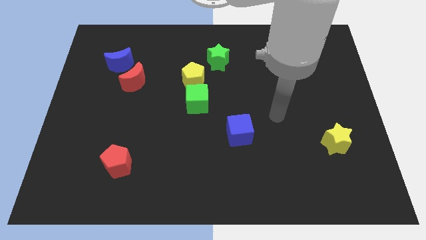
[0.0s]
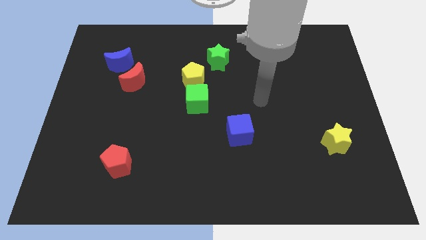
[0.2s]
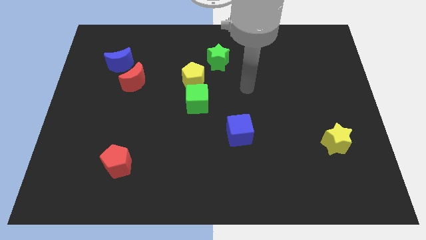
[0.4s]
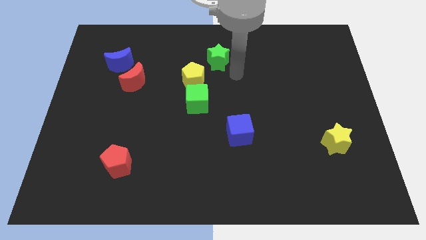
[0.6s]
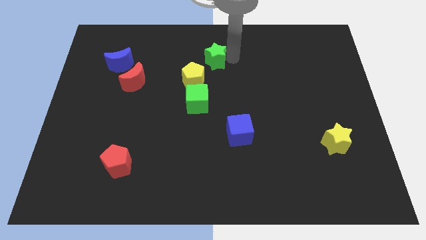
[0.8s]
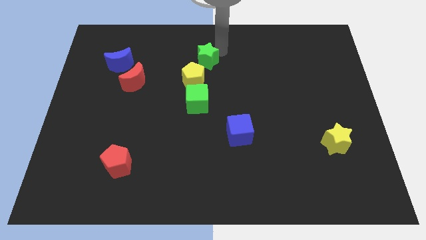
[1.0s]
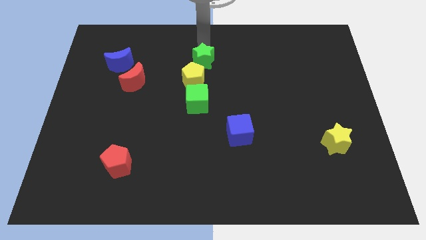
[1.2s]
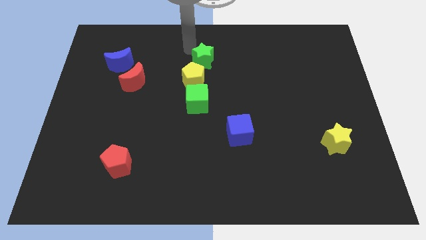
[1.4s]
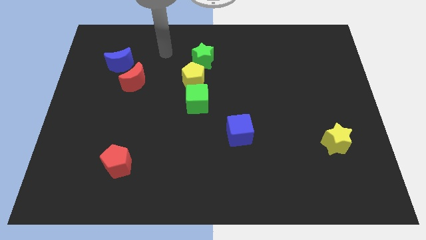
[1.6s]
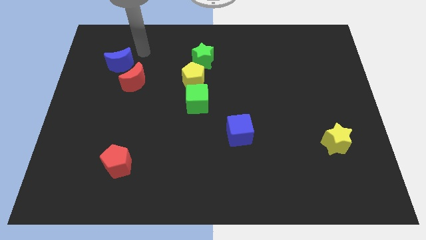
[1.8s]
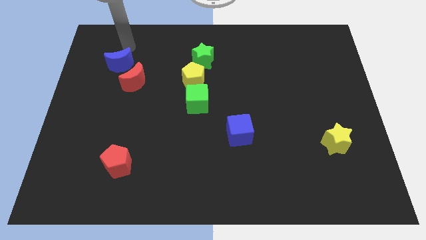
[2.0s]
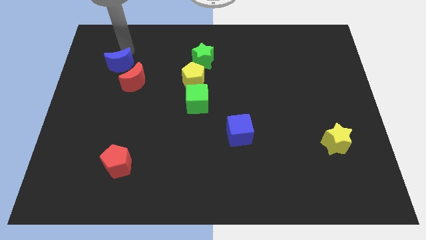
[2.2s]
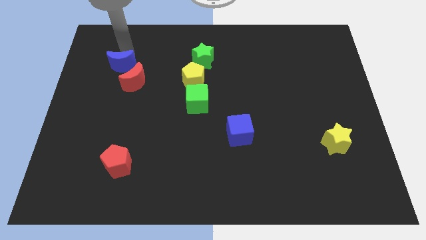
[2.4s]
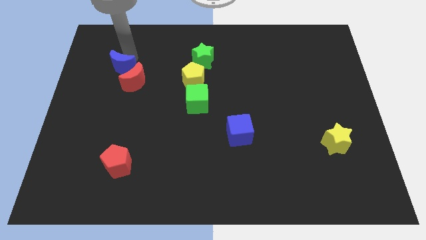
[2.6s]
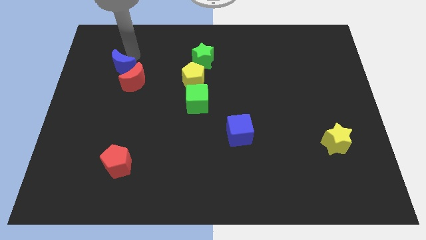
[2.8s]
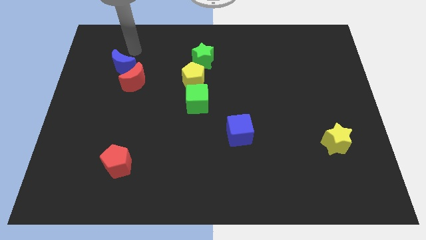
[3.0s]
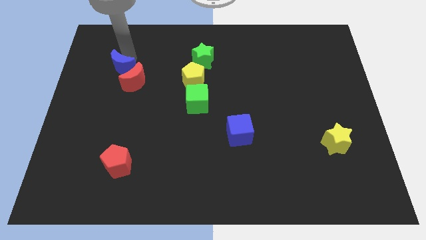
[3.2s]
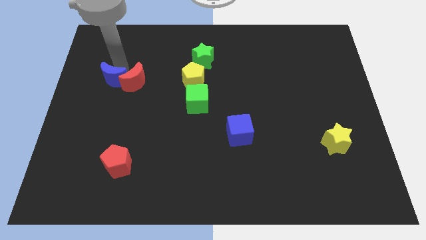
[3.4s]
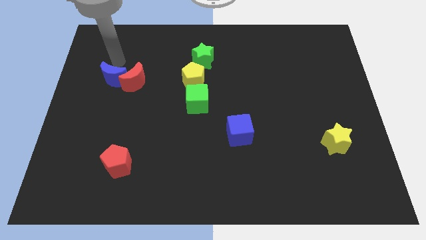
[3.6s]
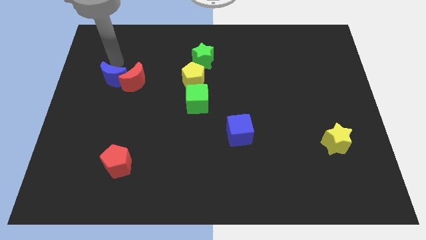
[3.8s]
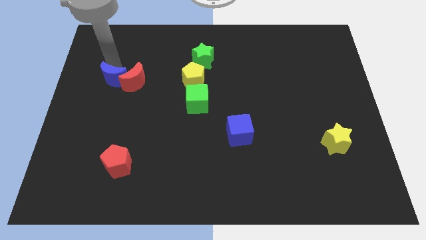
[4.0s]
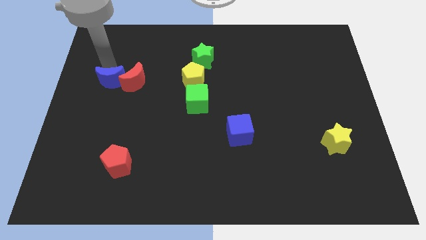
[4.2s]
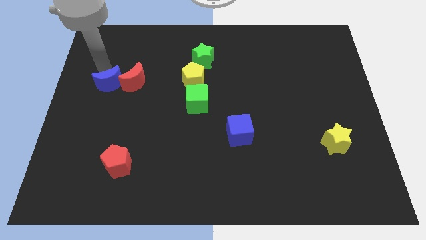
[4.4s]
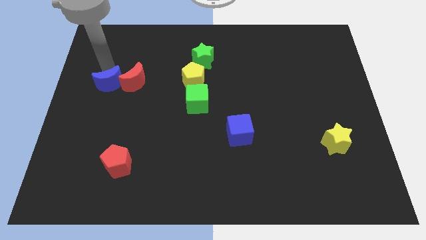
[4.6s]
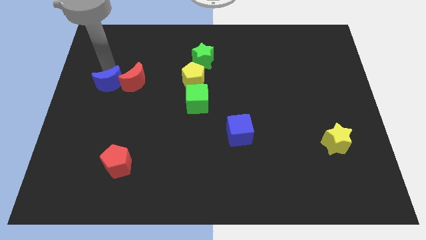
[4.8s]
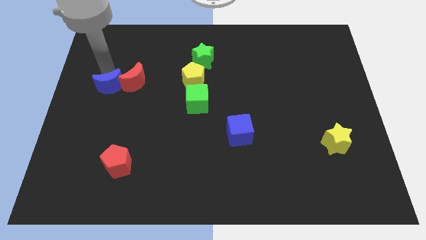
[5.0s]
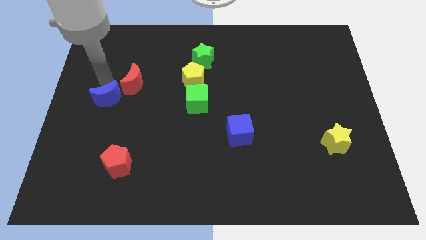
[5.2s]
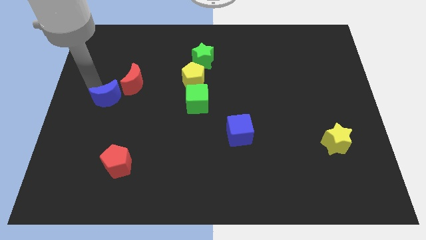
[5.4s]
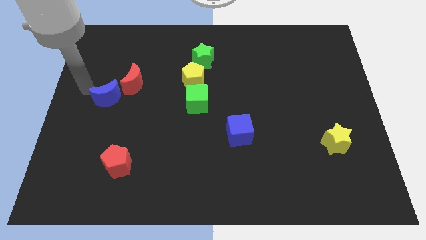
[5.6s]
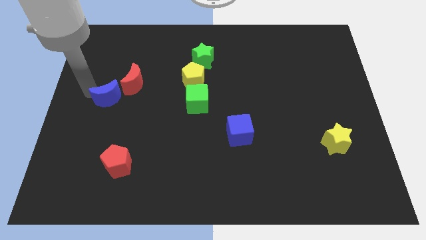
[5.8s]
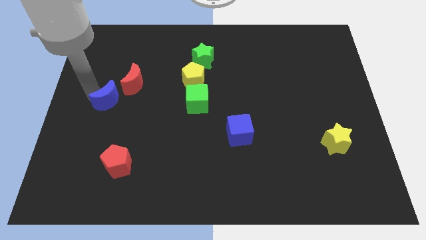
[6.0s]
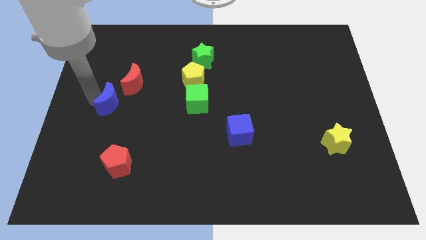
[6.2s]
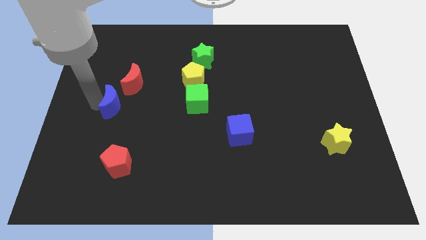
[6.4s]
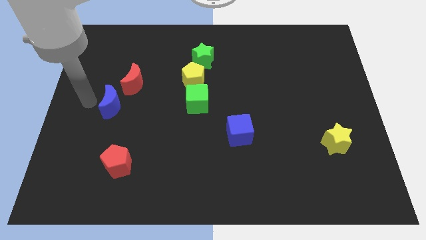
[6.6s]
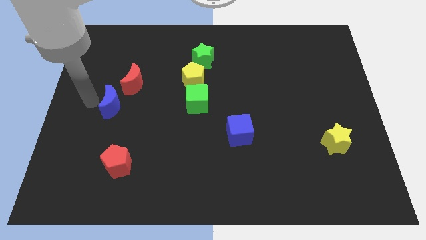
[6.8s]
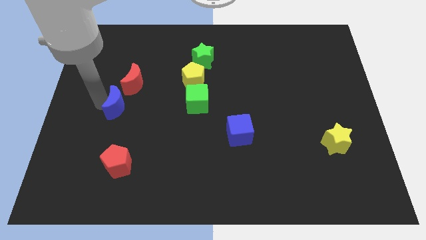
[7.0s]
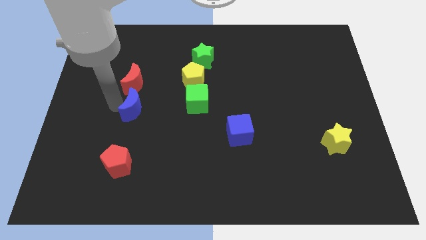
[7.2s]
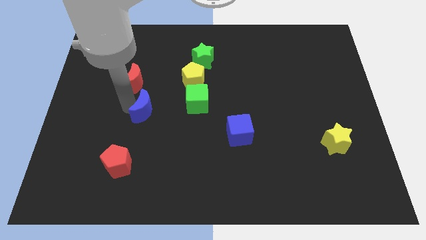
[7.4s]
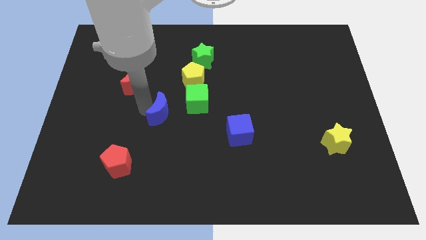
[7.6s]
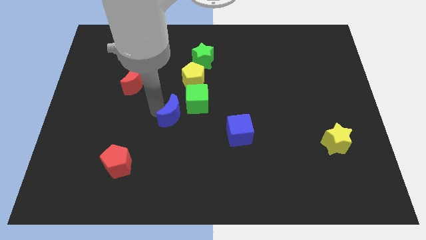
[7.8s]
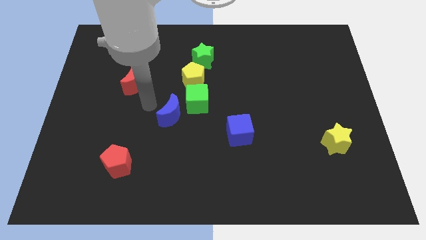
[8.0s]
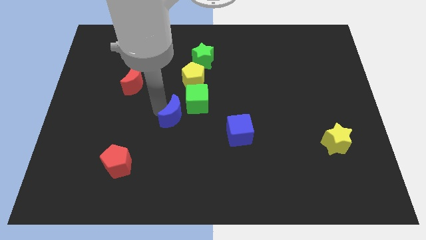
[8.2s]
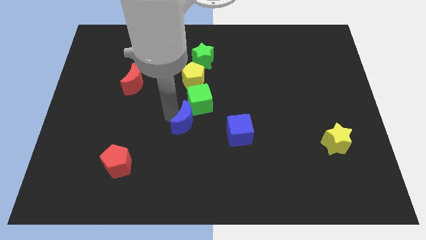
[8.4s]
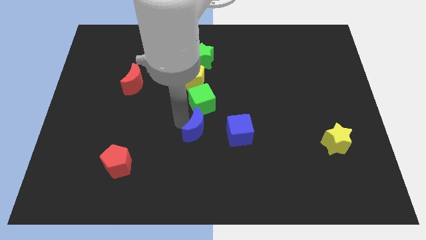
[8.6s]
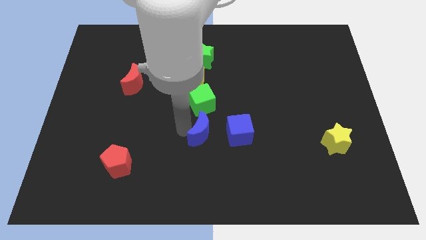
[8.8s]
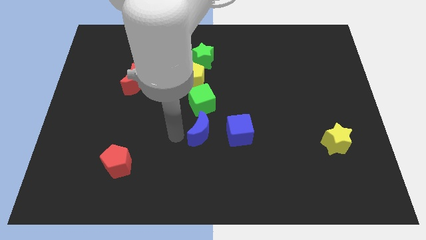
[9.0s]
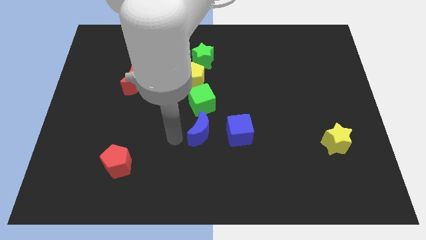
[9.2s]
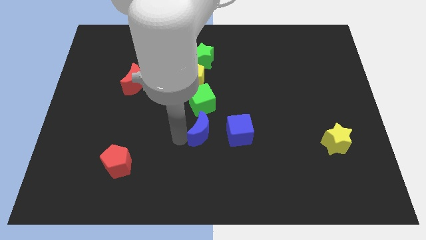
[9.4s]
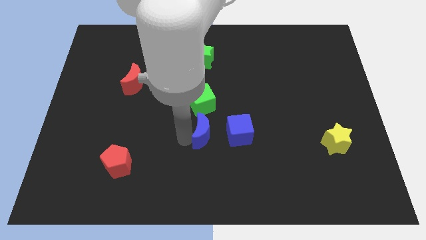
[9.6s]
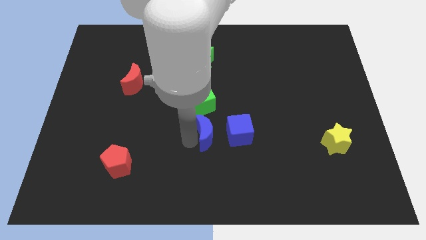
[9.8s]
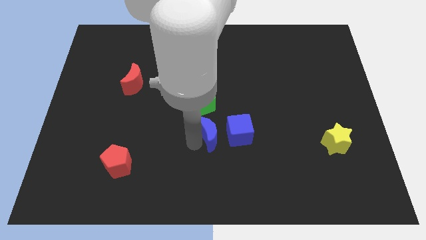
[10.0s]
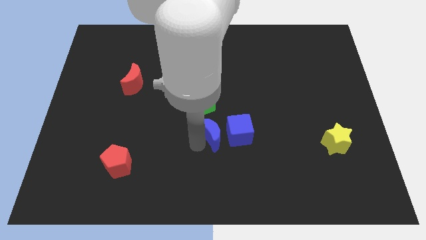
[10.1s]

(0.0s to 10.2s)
slide the blue moon towards the blue cube

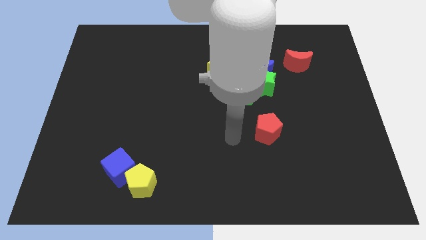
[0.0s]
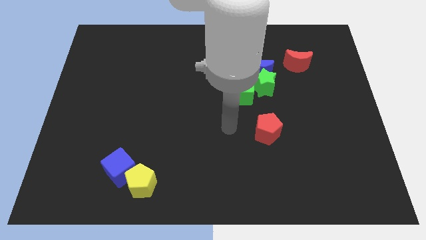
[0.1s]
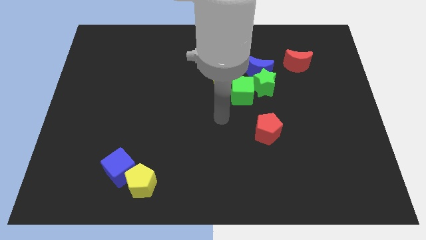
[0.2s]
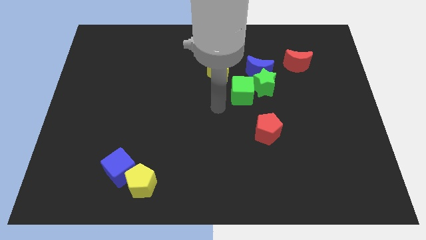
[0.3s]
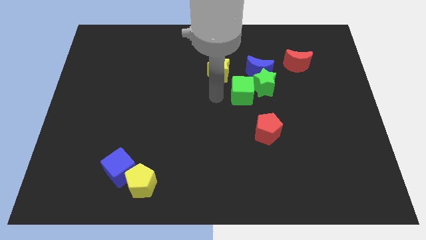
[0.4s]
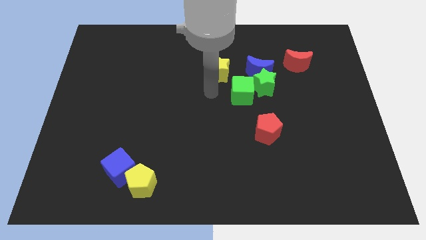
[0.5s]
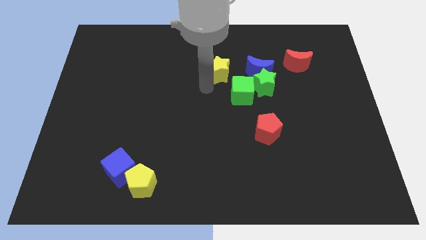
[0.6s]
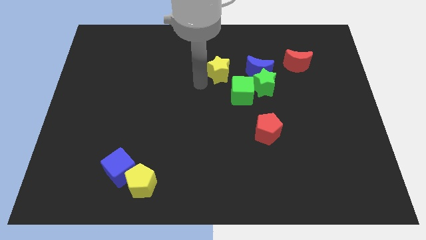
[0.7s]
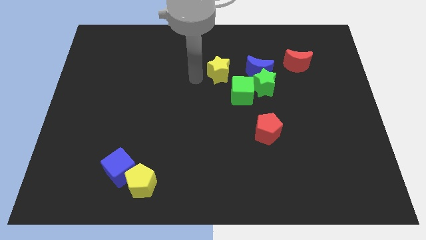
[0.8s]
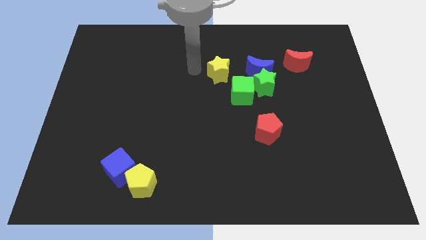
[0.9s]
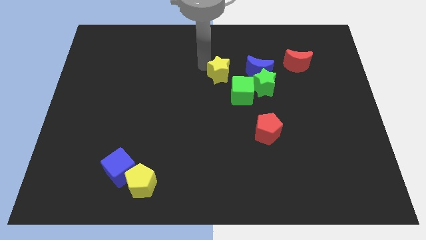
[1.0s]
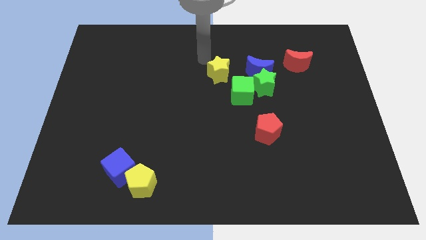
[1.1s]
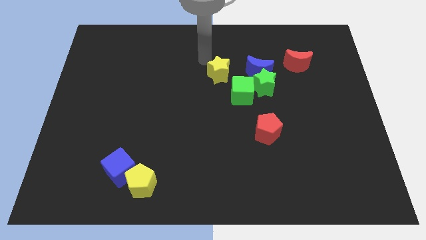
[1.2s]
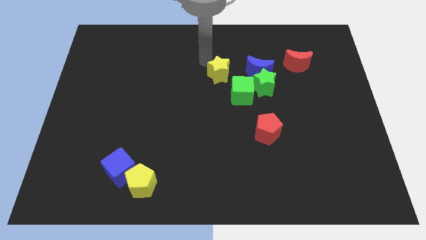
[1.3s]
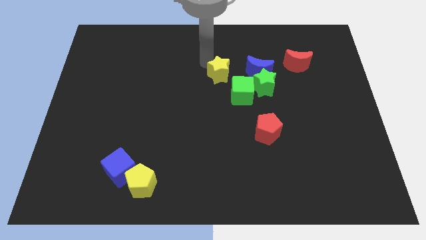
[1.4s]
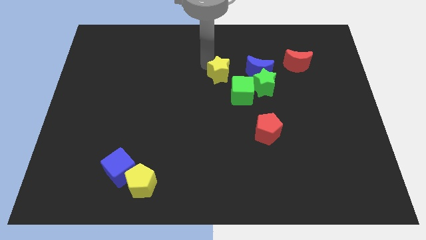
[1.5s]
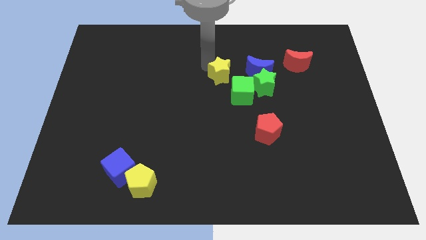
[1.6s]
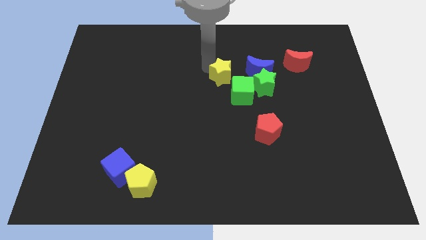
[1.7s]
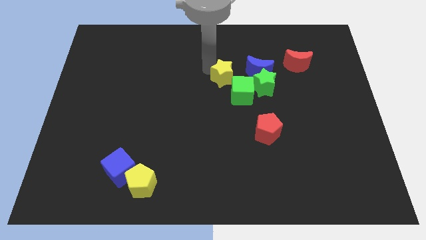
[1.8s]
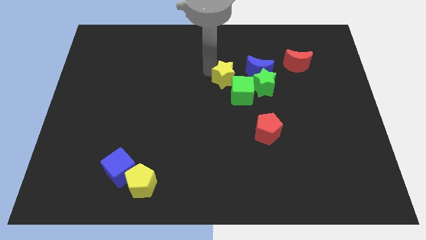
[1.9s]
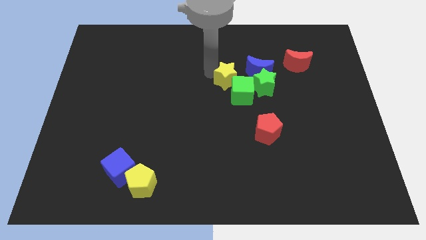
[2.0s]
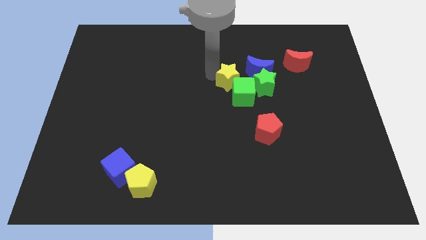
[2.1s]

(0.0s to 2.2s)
push the yellow star towards the green cube
